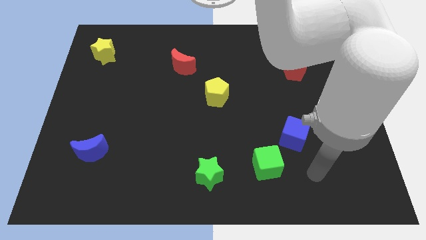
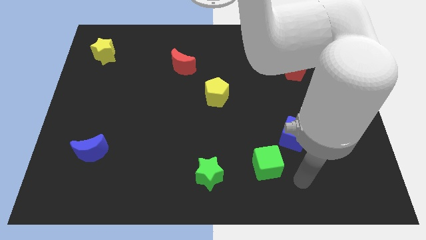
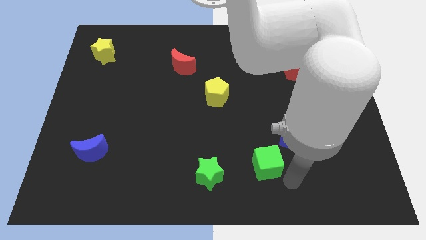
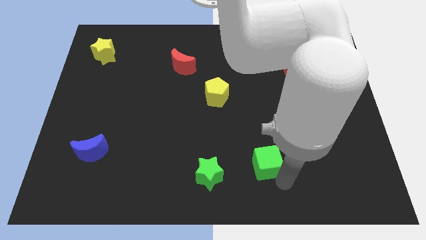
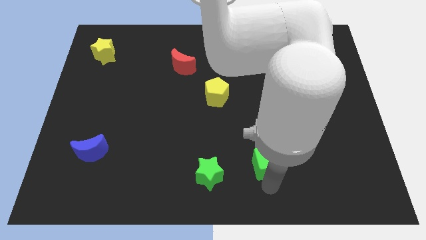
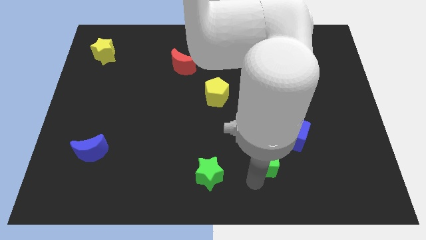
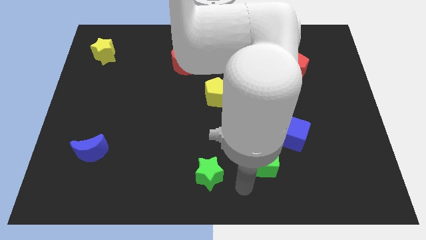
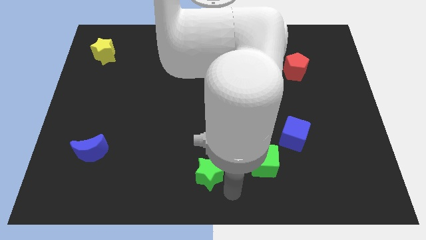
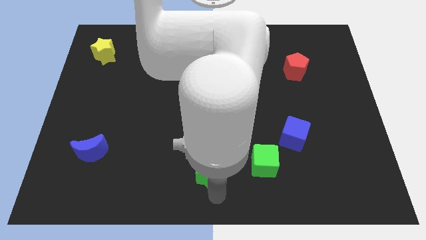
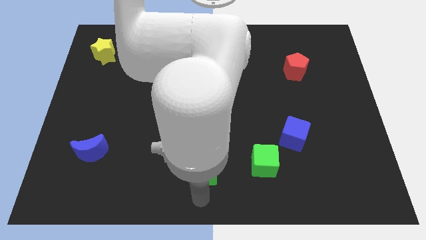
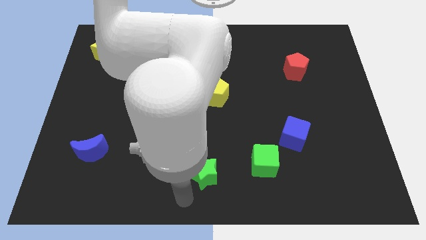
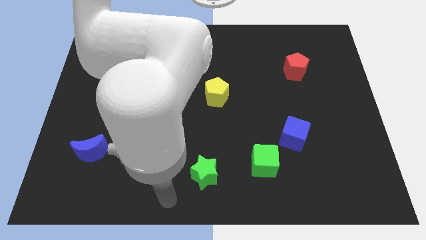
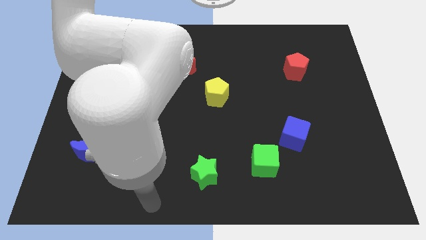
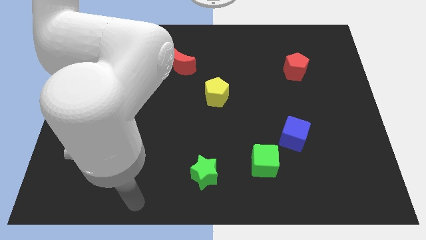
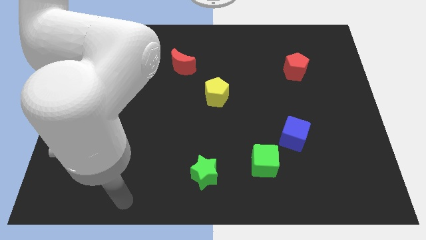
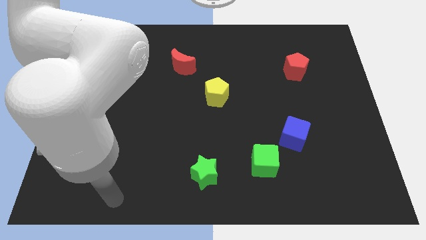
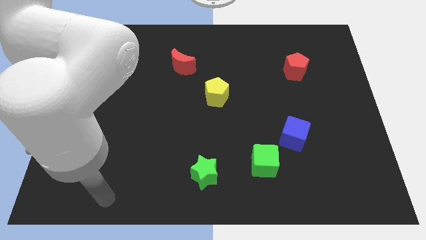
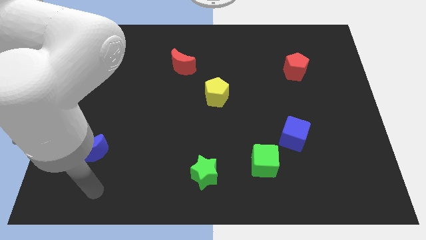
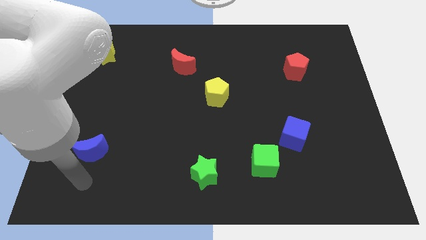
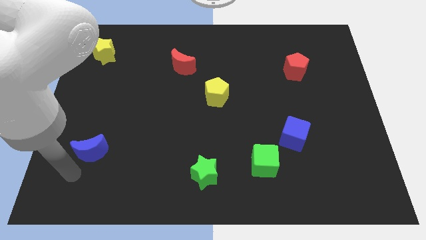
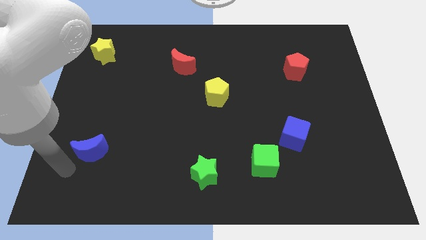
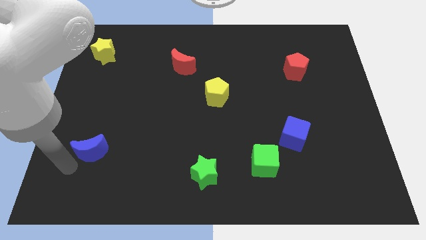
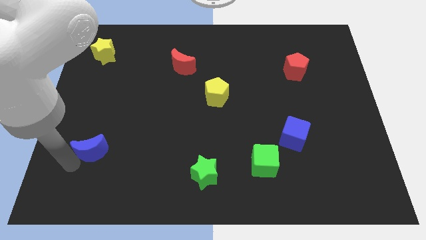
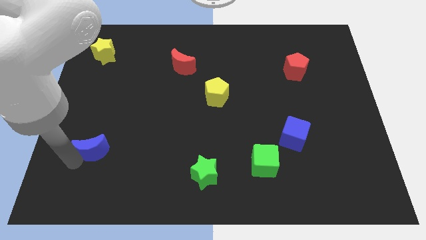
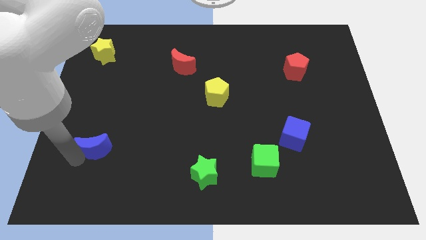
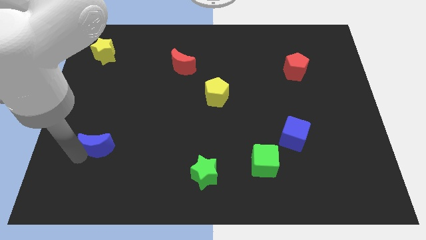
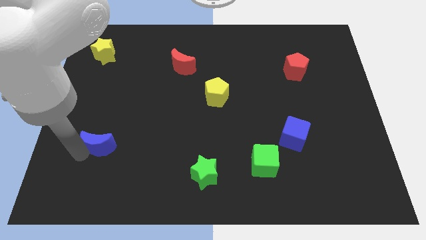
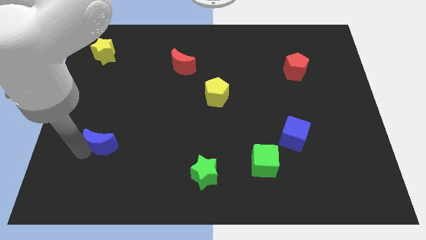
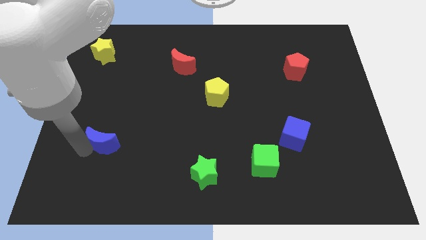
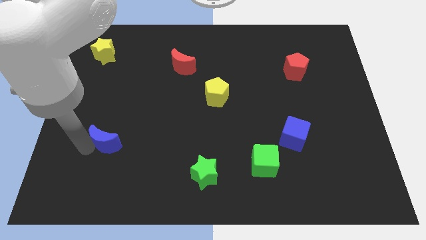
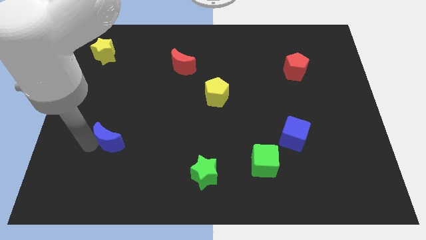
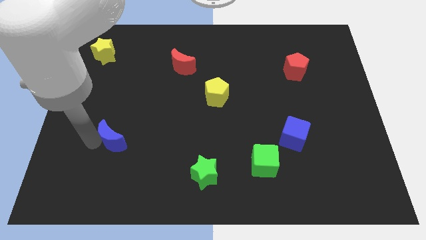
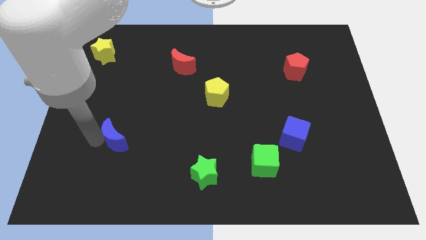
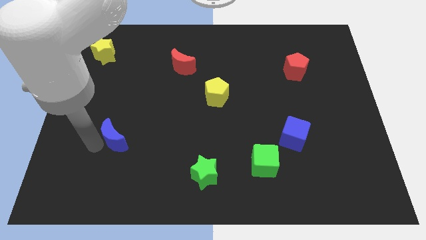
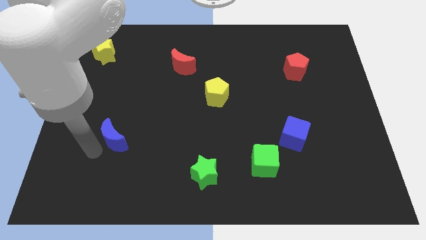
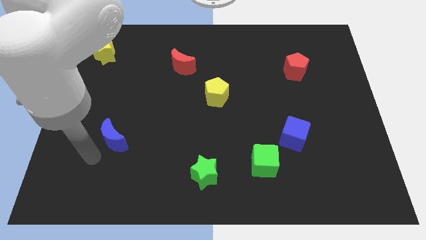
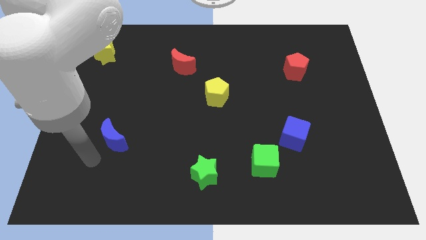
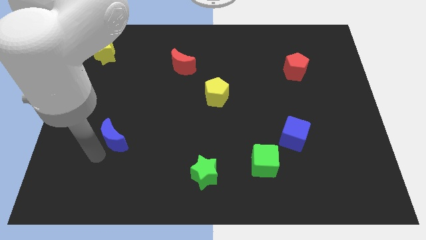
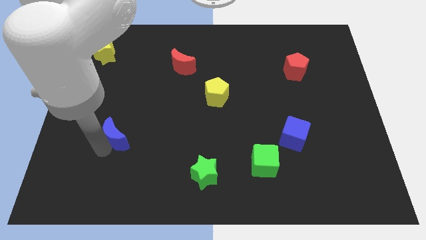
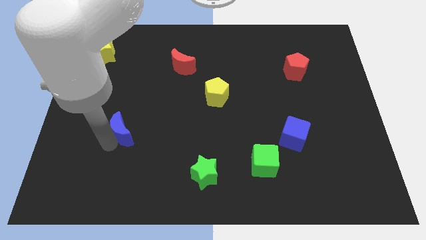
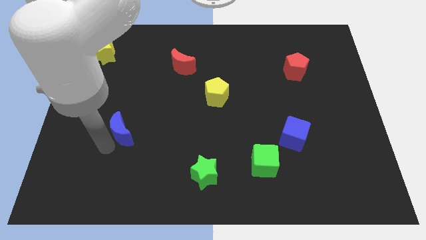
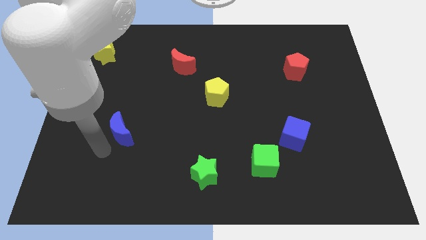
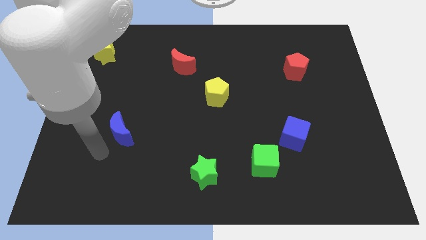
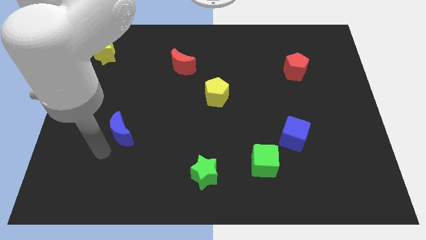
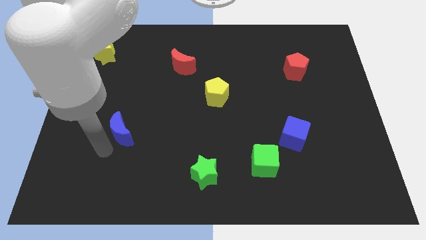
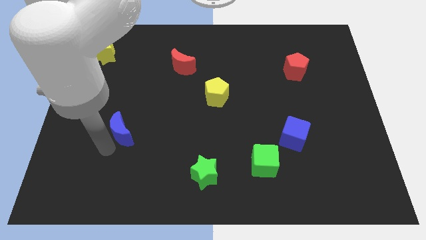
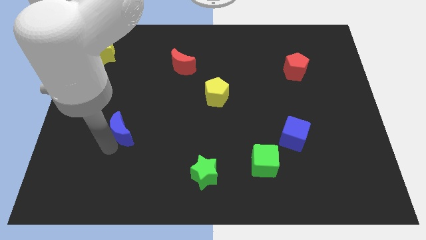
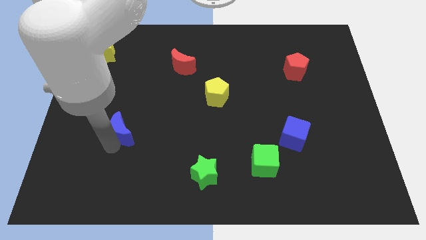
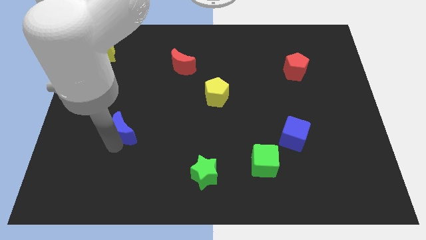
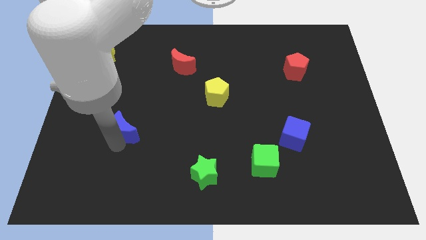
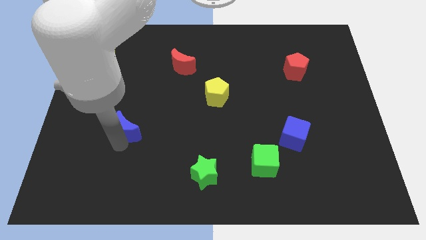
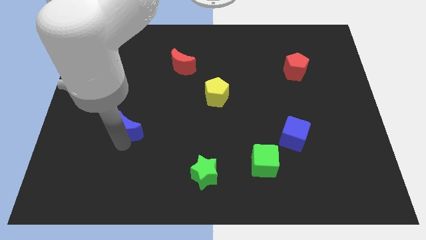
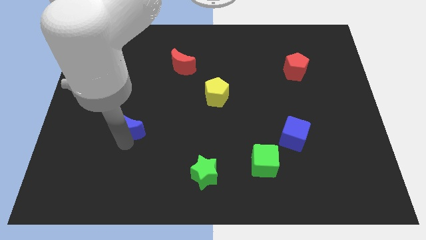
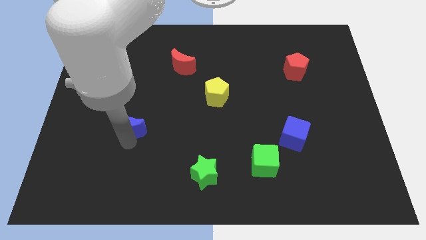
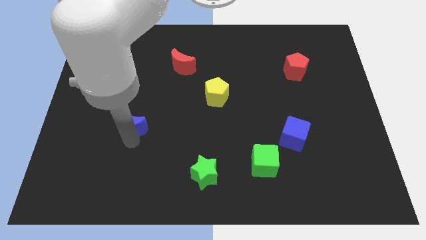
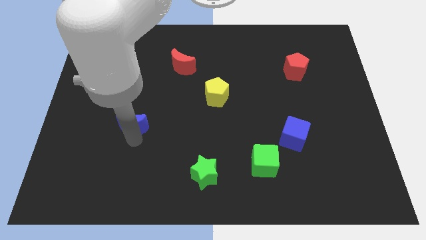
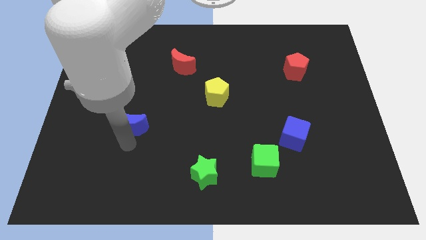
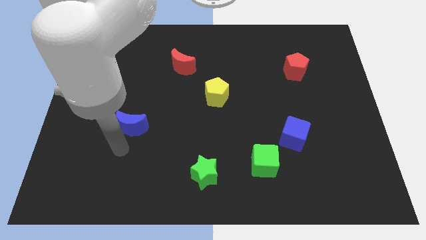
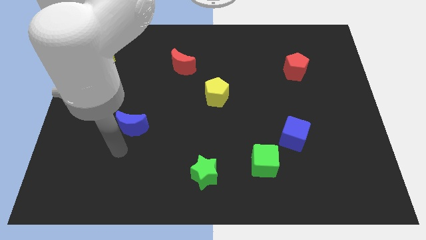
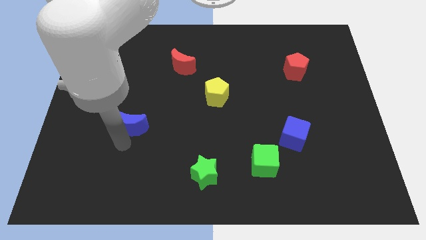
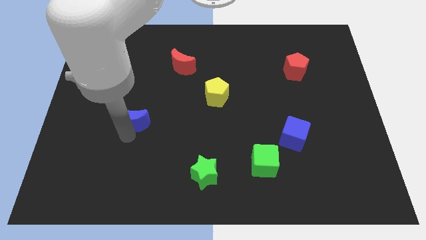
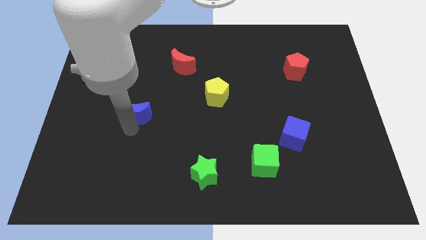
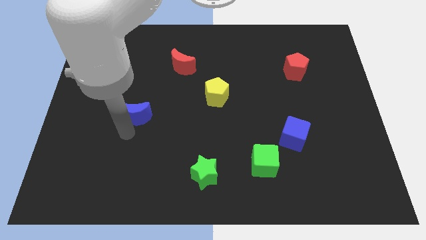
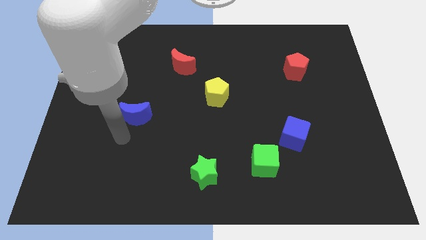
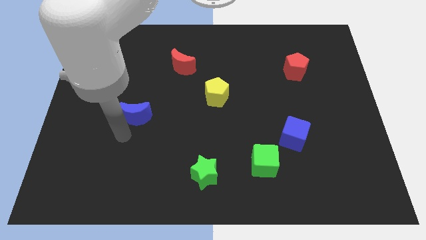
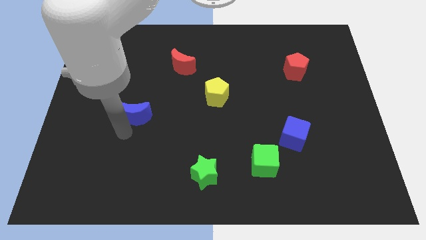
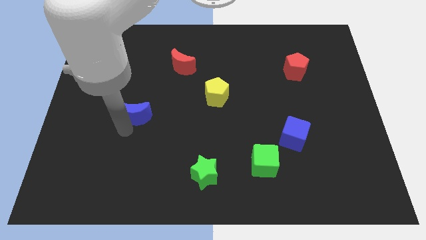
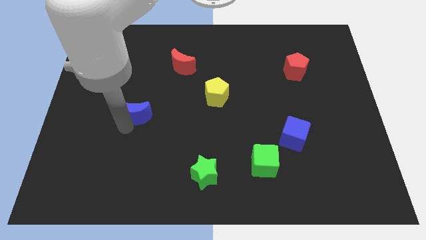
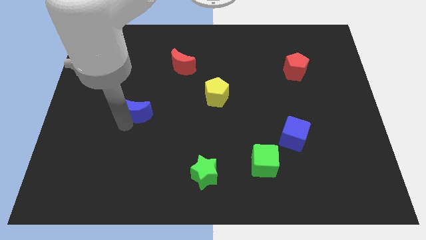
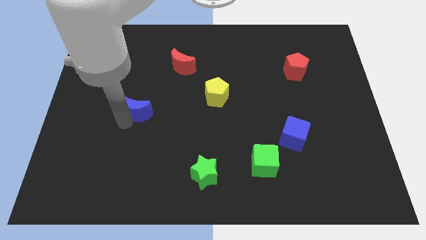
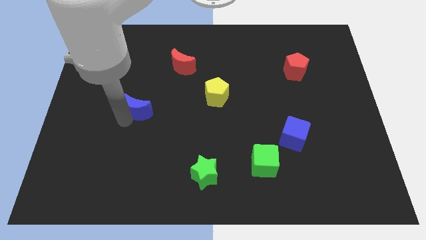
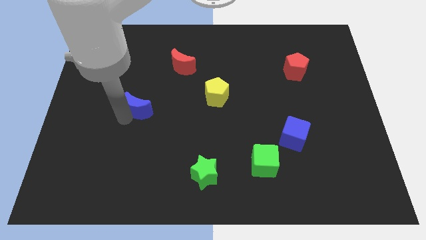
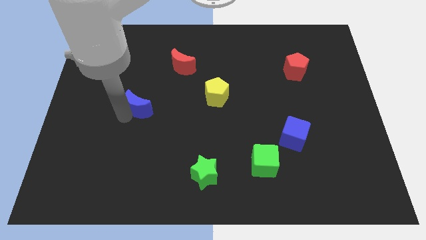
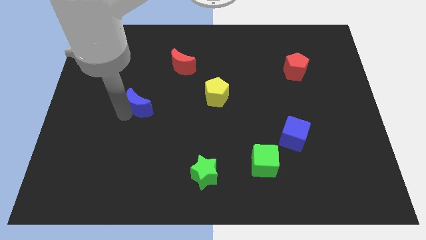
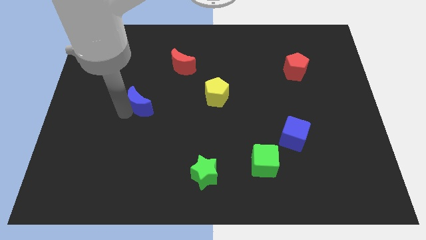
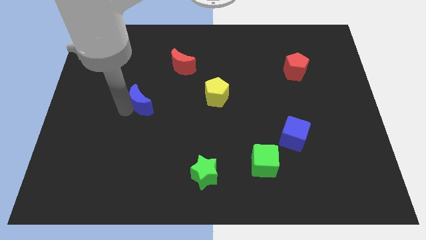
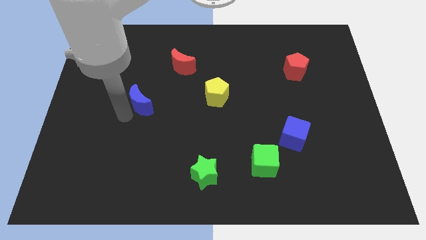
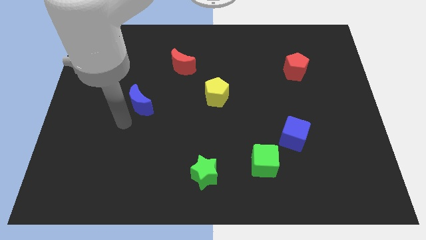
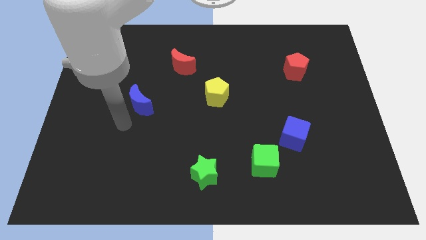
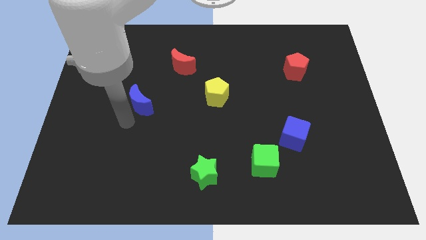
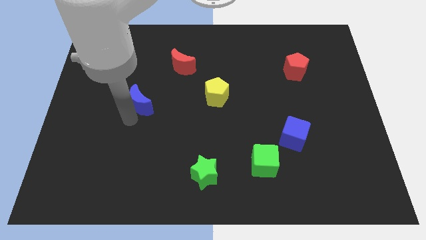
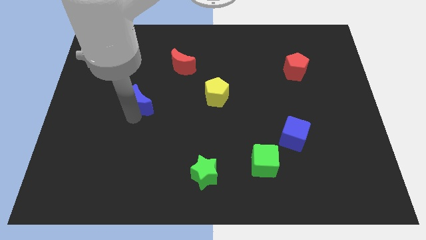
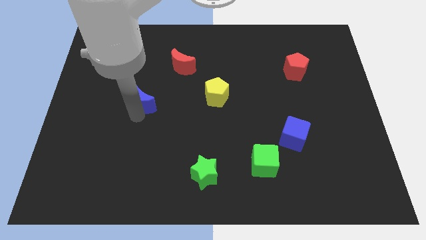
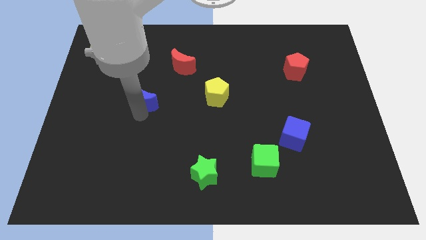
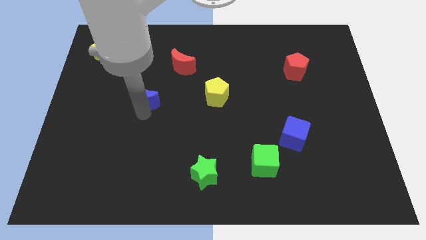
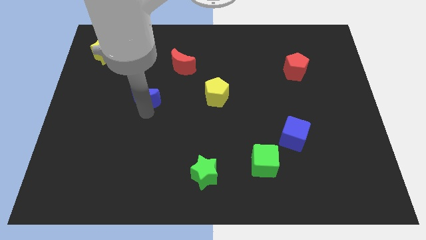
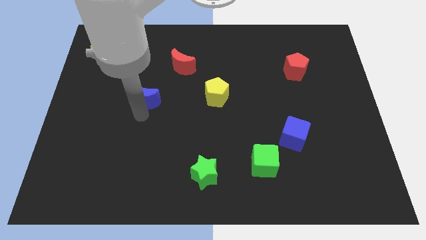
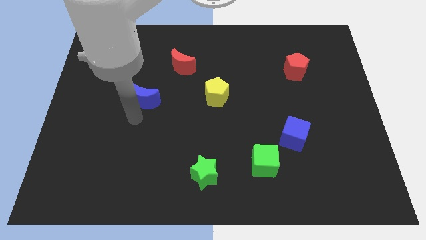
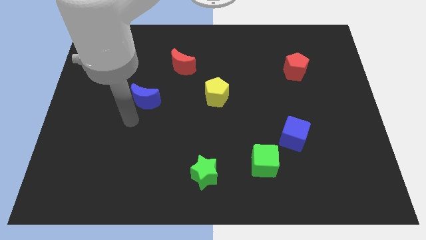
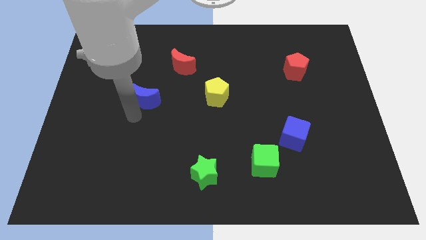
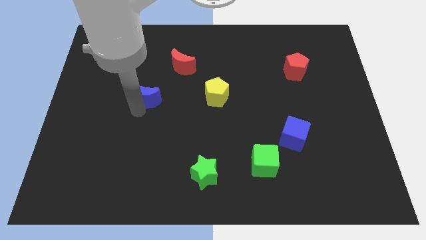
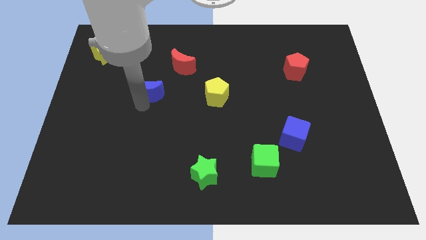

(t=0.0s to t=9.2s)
move the blue moon diagonally down and to the left of the red moon
